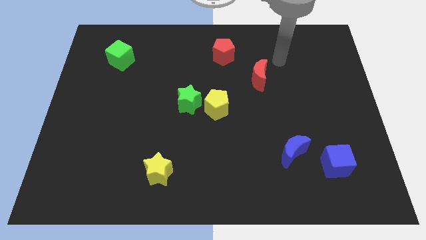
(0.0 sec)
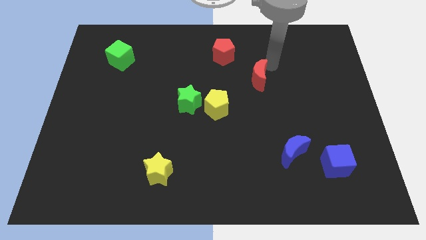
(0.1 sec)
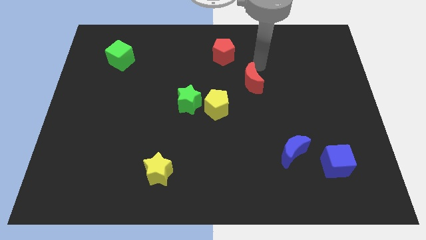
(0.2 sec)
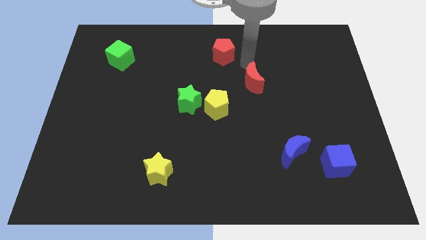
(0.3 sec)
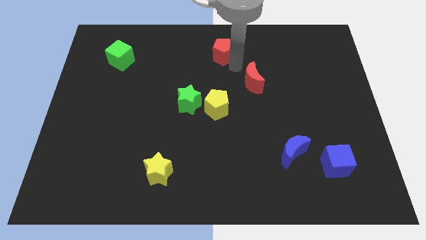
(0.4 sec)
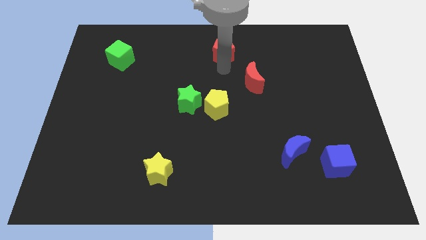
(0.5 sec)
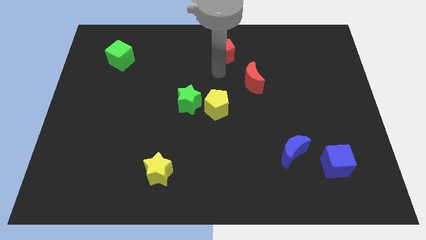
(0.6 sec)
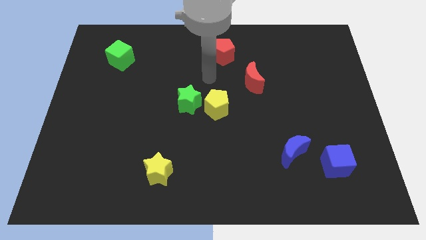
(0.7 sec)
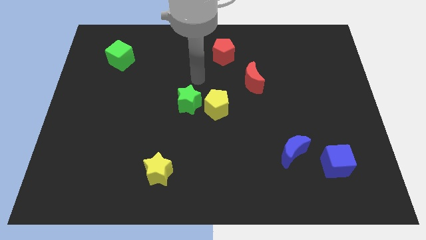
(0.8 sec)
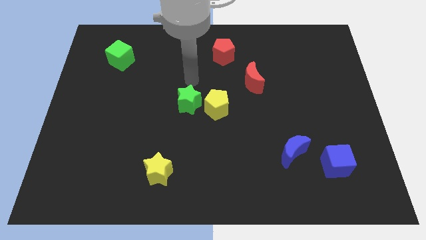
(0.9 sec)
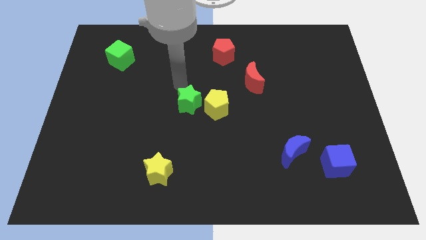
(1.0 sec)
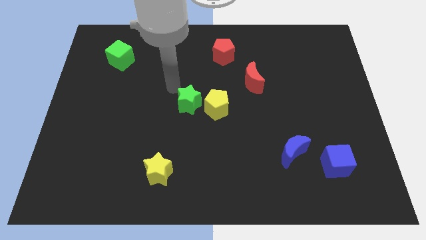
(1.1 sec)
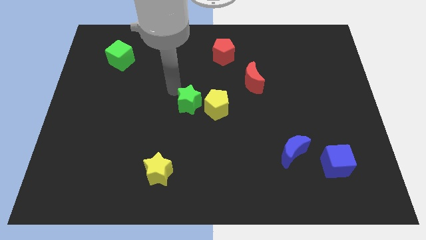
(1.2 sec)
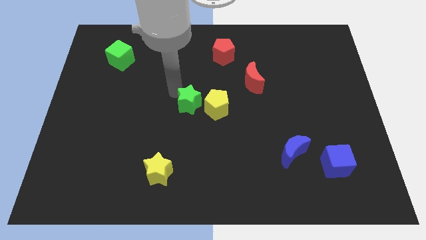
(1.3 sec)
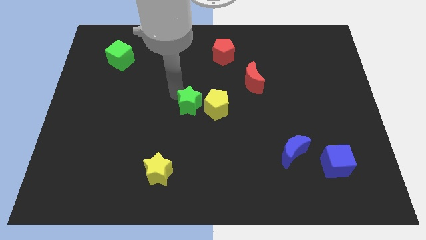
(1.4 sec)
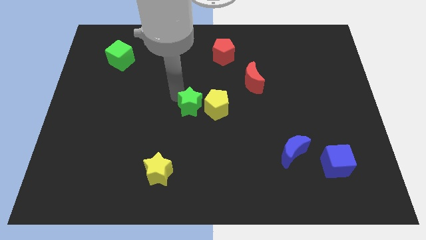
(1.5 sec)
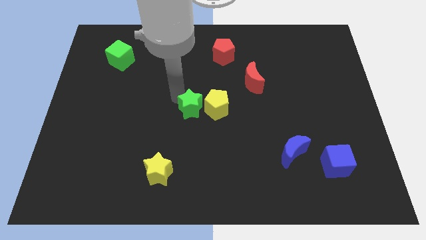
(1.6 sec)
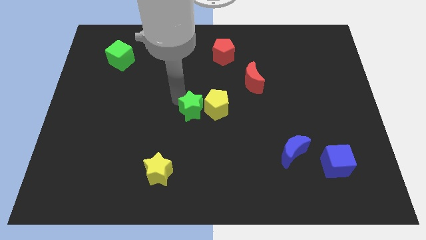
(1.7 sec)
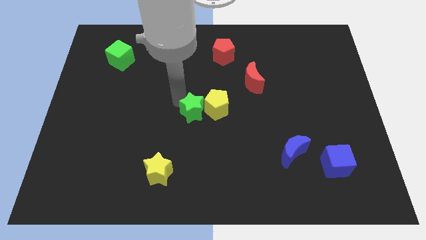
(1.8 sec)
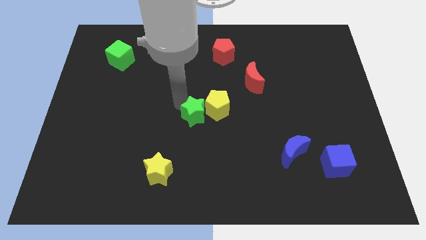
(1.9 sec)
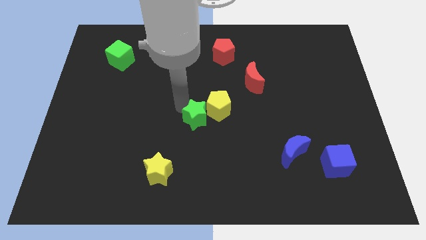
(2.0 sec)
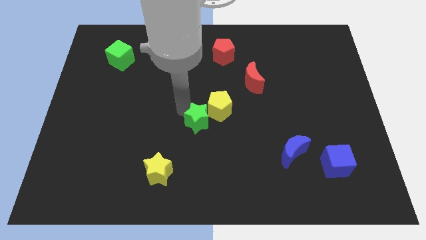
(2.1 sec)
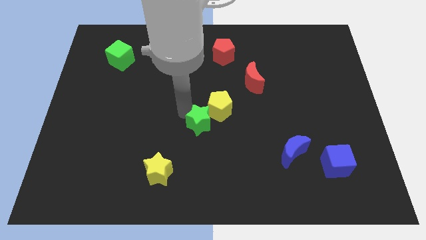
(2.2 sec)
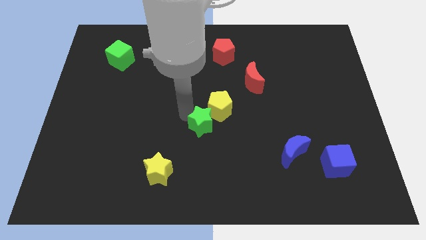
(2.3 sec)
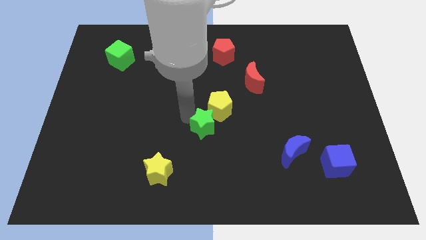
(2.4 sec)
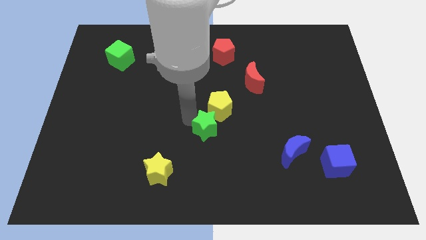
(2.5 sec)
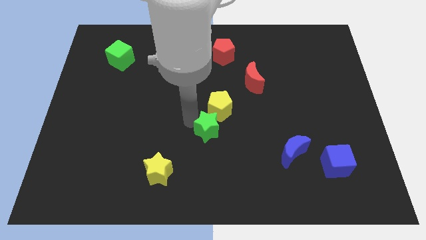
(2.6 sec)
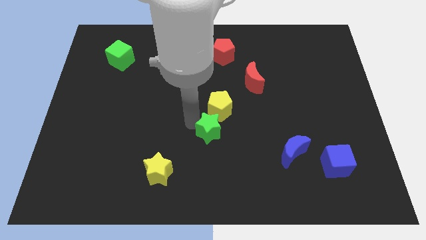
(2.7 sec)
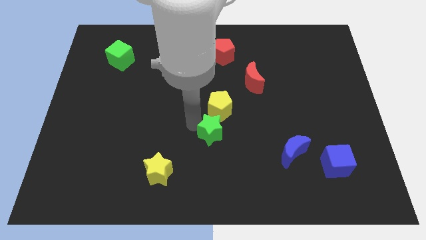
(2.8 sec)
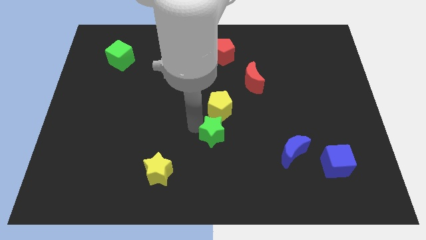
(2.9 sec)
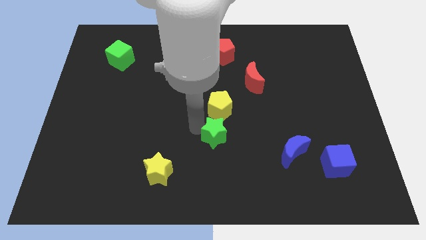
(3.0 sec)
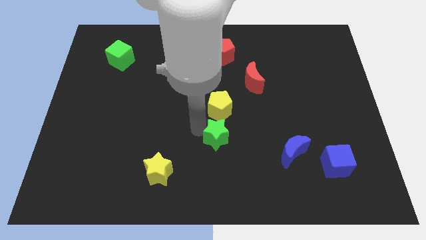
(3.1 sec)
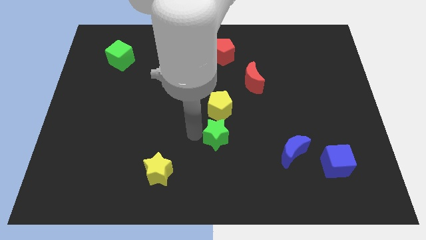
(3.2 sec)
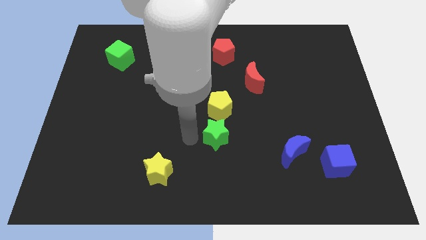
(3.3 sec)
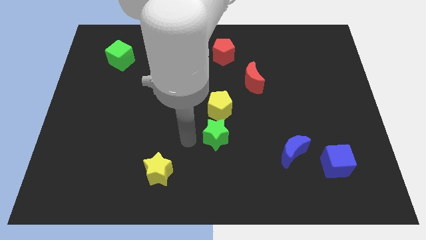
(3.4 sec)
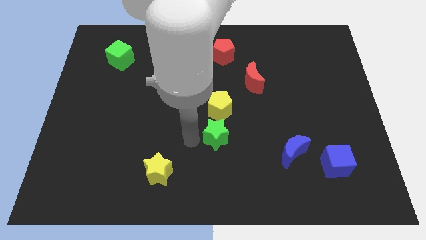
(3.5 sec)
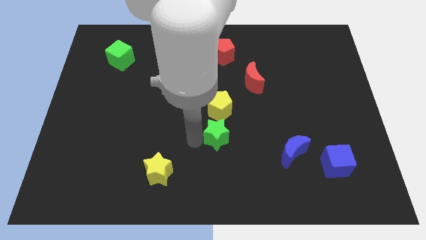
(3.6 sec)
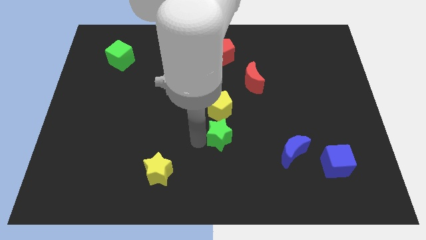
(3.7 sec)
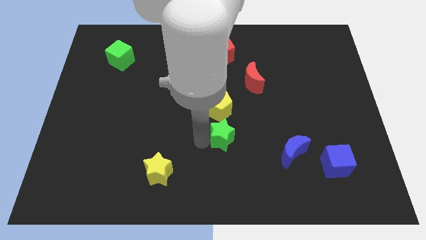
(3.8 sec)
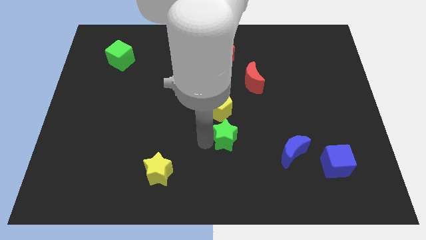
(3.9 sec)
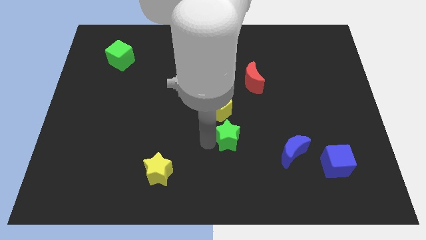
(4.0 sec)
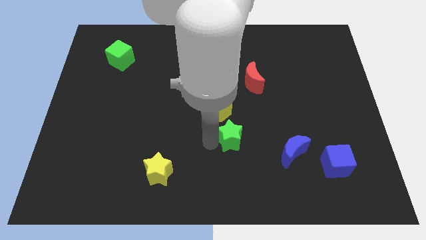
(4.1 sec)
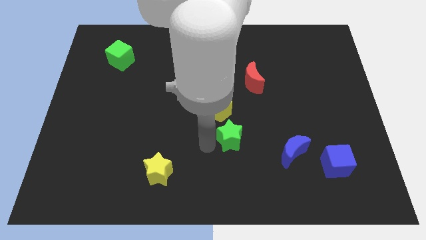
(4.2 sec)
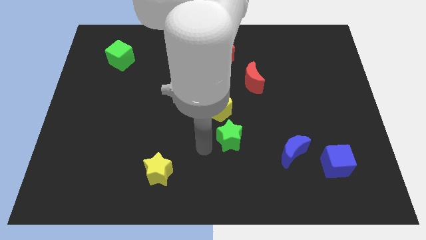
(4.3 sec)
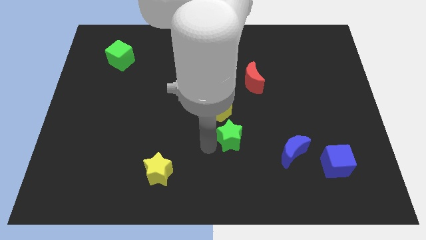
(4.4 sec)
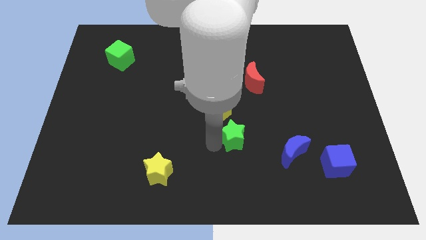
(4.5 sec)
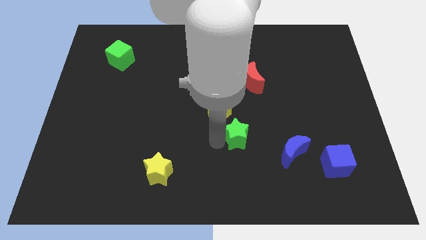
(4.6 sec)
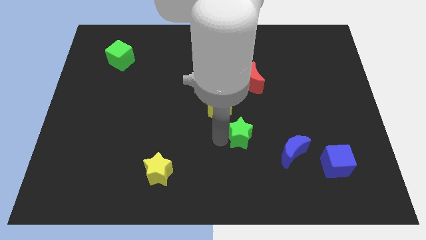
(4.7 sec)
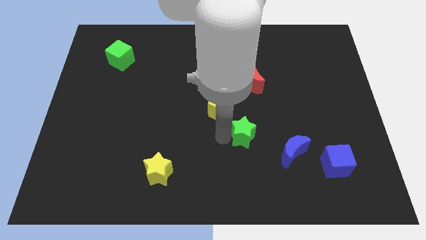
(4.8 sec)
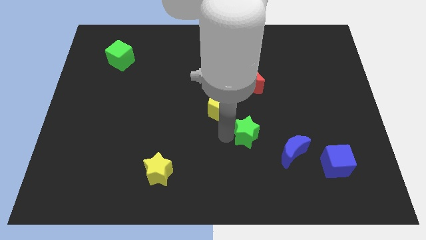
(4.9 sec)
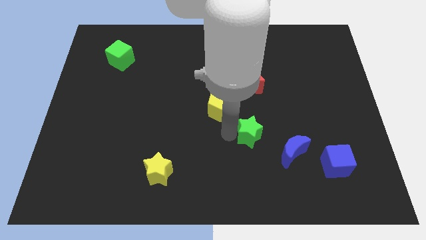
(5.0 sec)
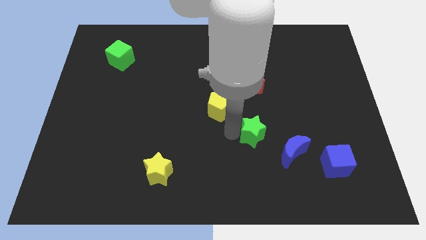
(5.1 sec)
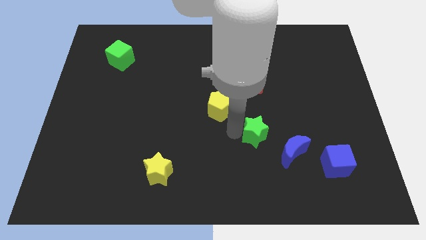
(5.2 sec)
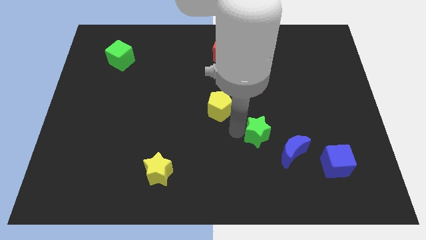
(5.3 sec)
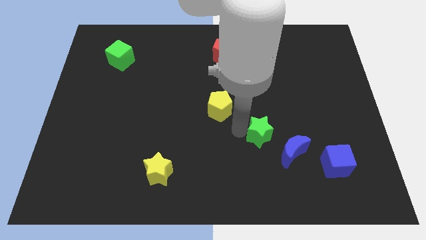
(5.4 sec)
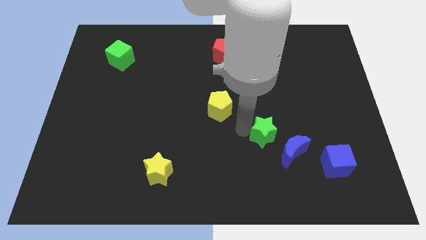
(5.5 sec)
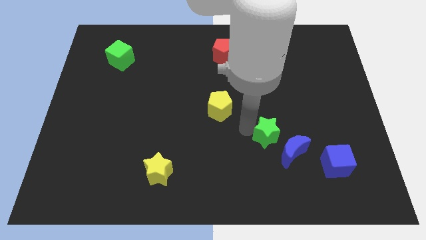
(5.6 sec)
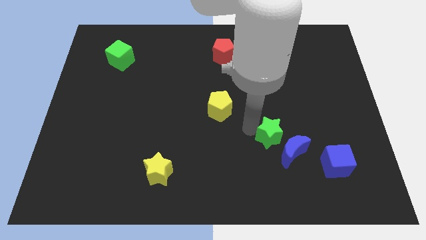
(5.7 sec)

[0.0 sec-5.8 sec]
slide the green star next to the blue moon

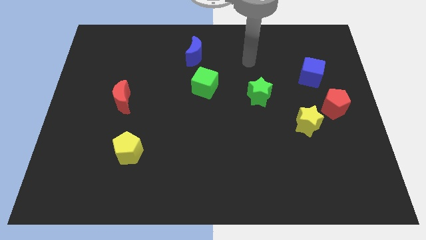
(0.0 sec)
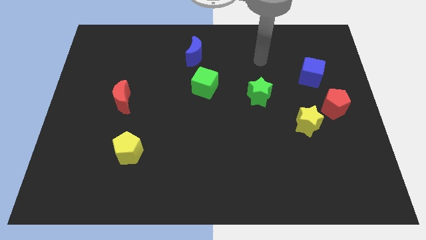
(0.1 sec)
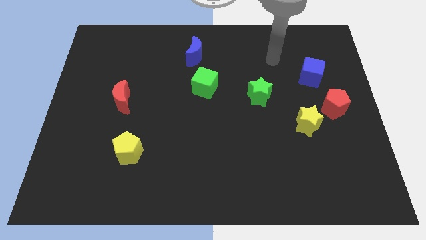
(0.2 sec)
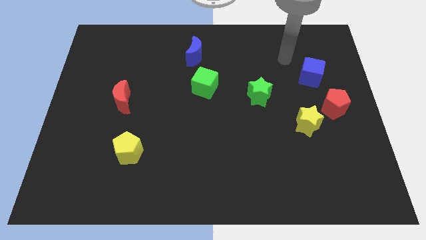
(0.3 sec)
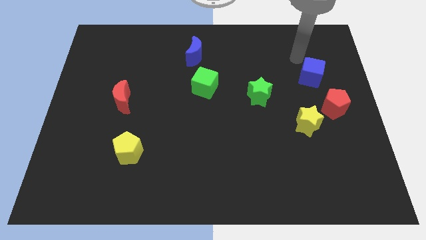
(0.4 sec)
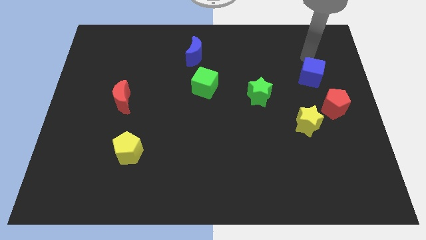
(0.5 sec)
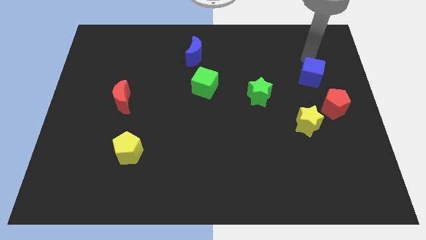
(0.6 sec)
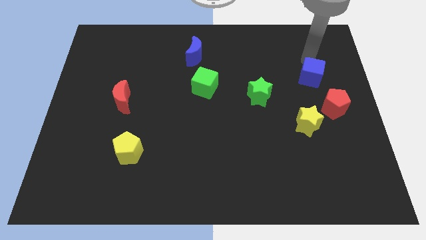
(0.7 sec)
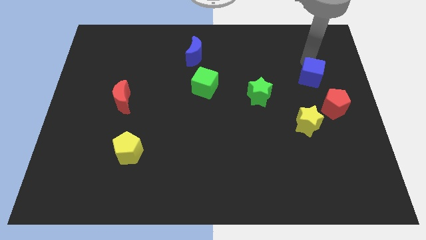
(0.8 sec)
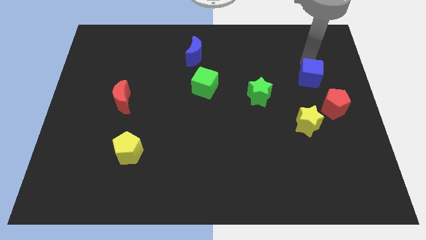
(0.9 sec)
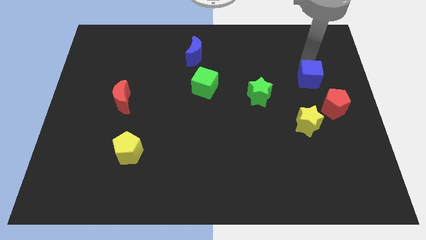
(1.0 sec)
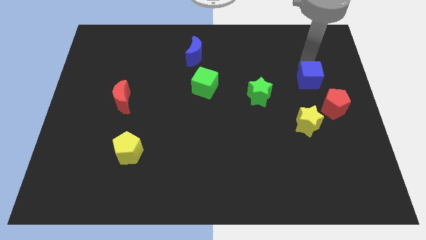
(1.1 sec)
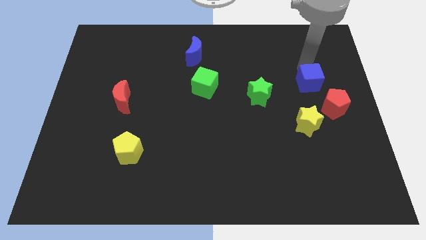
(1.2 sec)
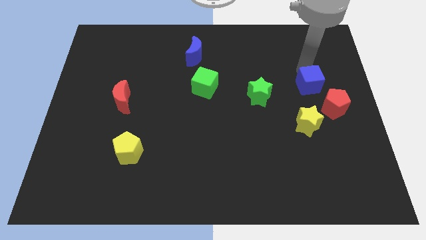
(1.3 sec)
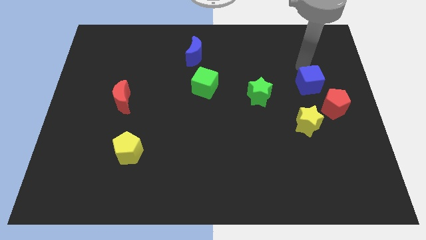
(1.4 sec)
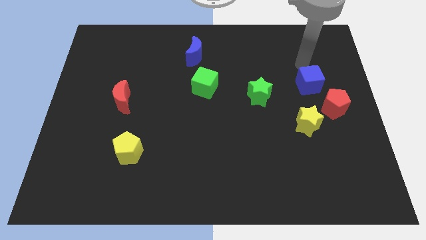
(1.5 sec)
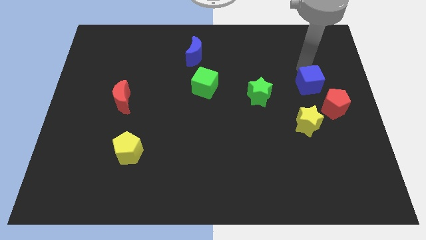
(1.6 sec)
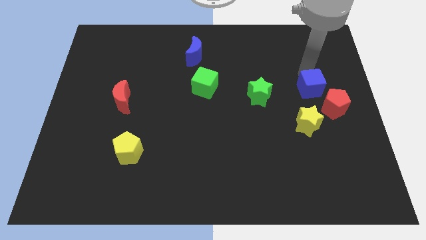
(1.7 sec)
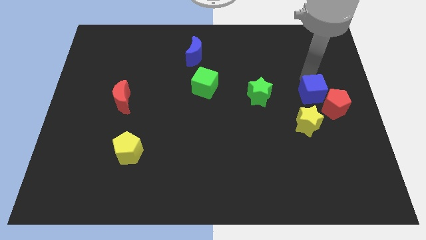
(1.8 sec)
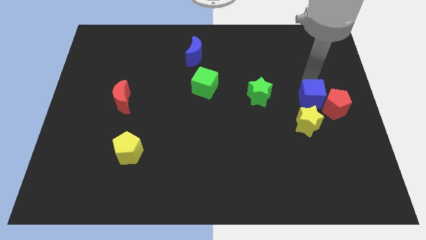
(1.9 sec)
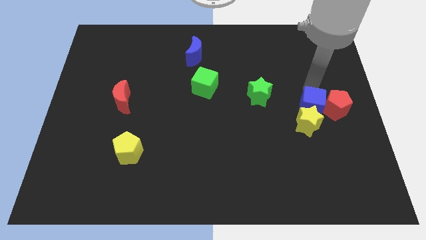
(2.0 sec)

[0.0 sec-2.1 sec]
move the blue cube towards the yellow star
